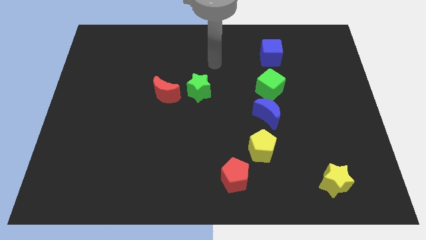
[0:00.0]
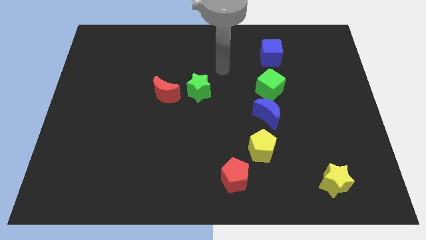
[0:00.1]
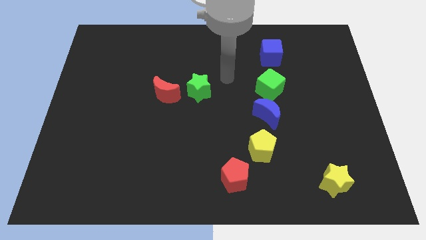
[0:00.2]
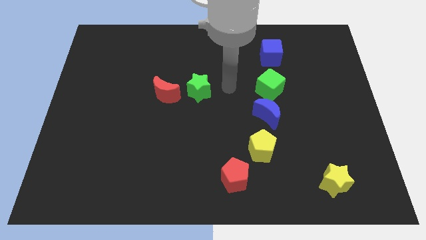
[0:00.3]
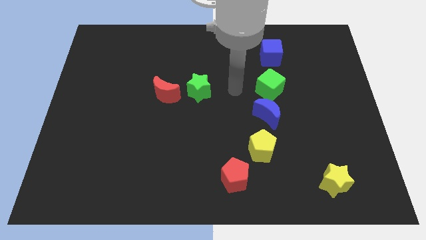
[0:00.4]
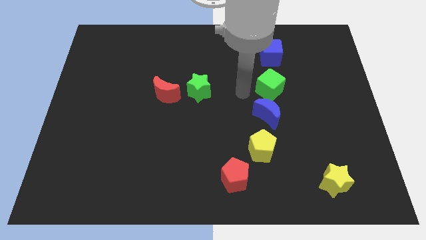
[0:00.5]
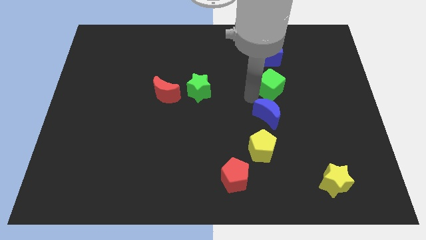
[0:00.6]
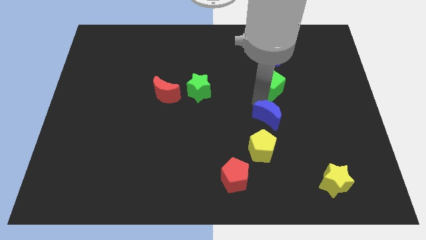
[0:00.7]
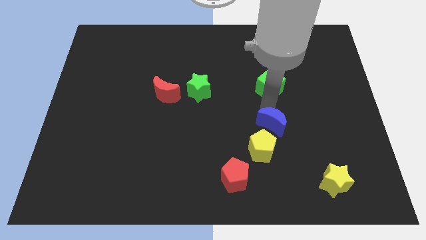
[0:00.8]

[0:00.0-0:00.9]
move the green cube away from the blue moon

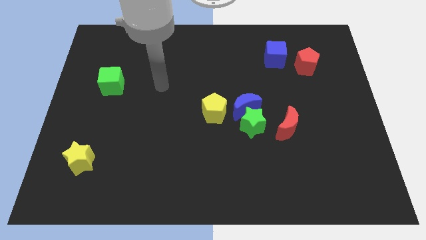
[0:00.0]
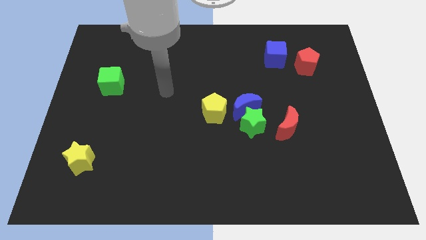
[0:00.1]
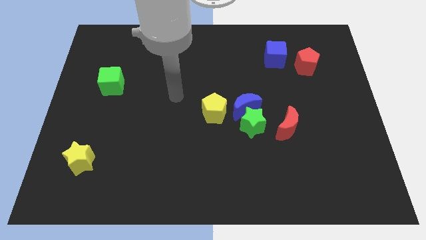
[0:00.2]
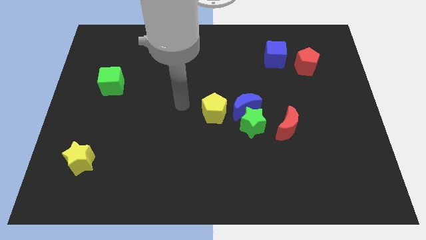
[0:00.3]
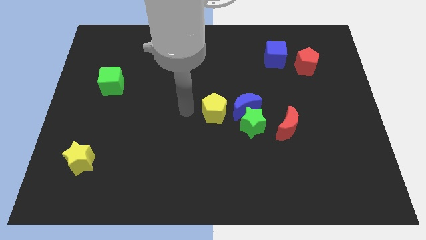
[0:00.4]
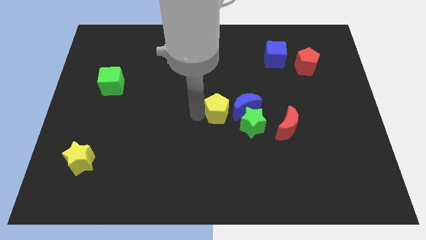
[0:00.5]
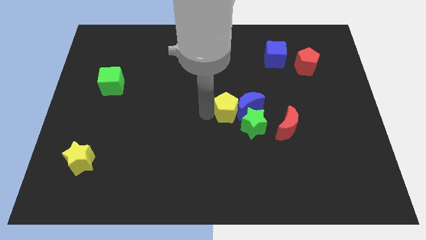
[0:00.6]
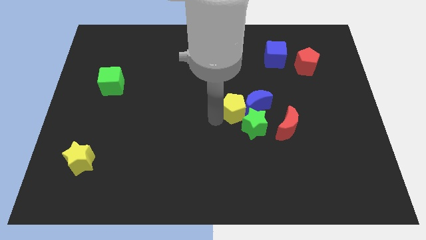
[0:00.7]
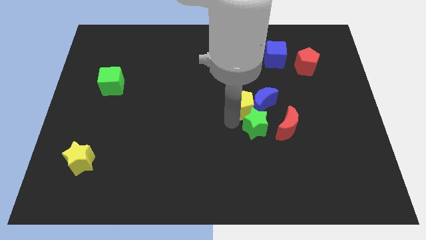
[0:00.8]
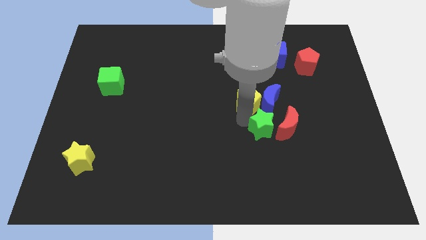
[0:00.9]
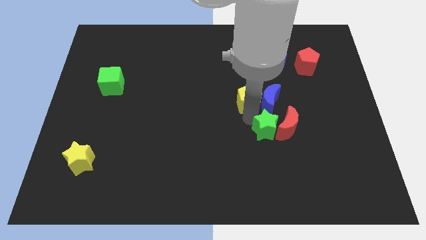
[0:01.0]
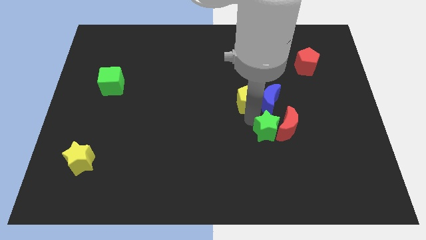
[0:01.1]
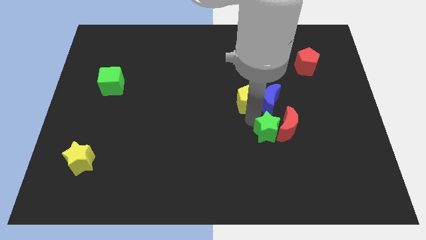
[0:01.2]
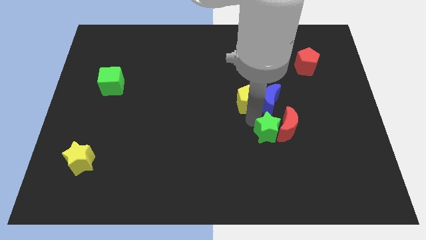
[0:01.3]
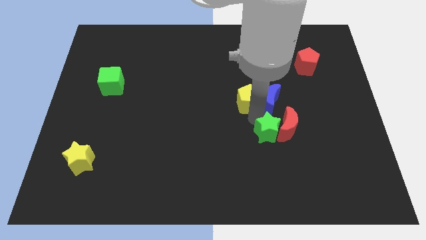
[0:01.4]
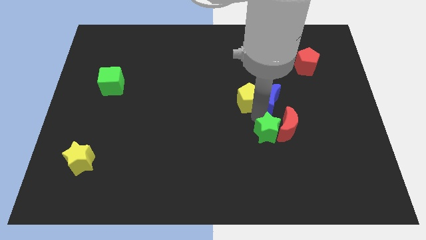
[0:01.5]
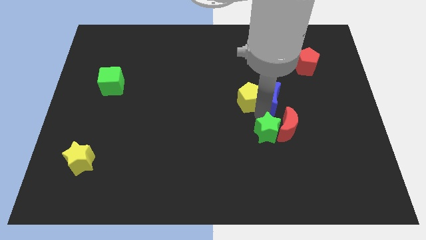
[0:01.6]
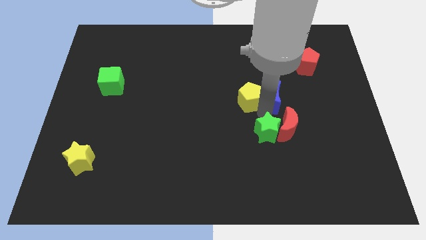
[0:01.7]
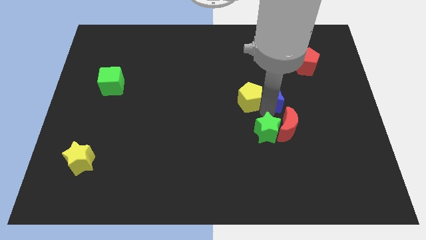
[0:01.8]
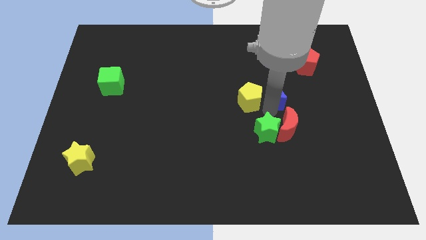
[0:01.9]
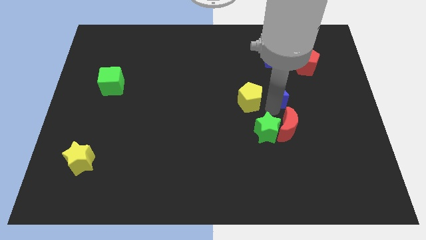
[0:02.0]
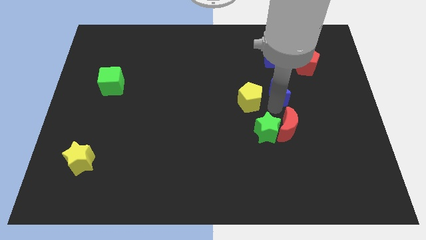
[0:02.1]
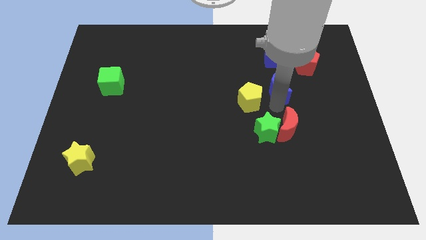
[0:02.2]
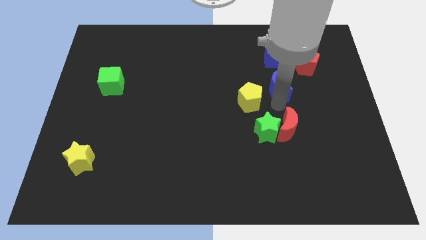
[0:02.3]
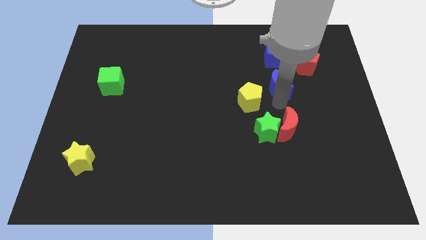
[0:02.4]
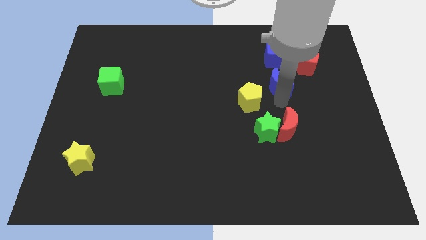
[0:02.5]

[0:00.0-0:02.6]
separate the blue moon from the green star and yellow pentagon

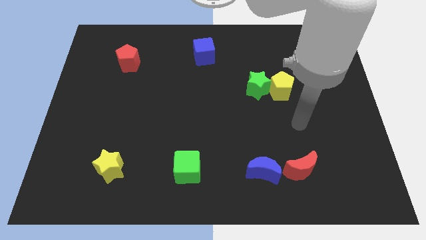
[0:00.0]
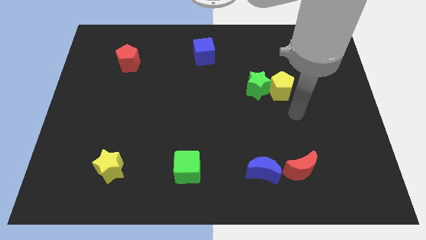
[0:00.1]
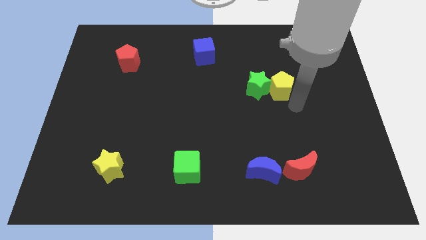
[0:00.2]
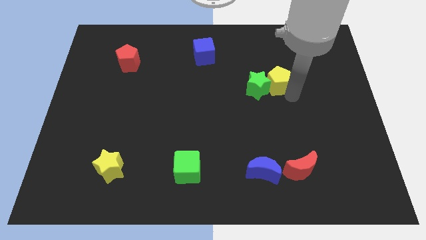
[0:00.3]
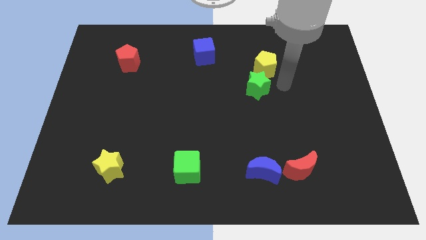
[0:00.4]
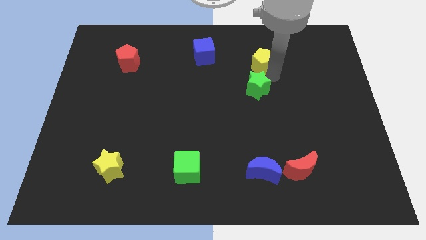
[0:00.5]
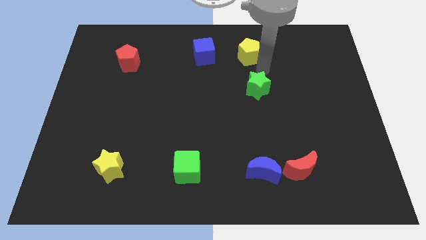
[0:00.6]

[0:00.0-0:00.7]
separate the green star from the yellow pentagon

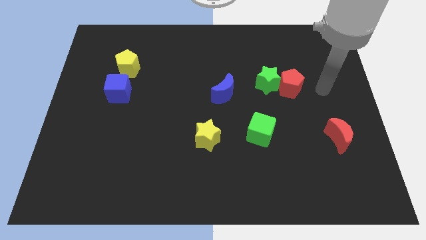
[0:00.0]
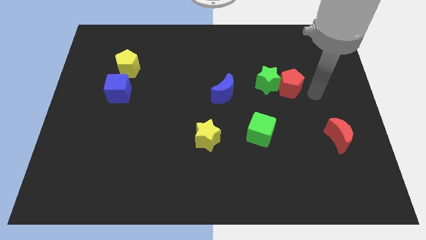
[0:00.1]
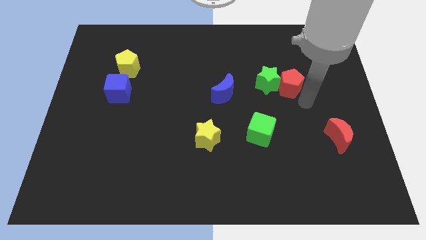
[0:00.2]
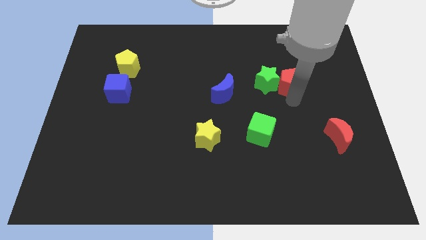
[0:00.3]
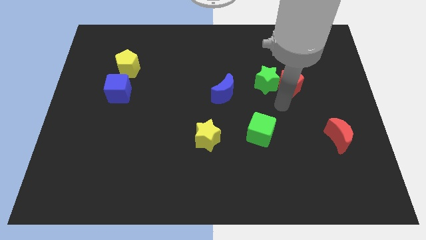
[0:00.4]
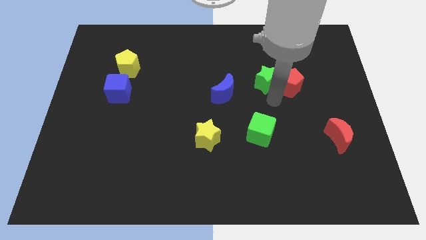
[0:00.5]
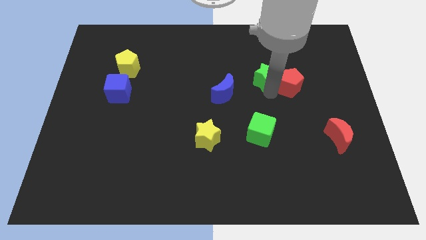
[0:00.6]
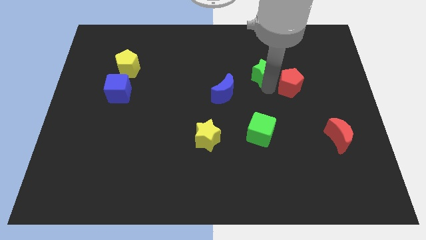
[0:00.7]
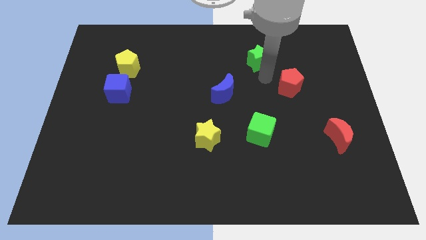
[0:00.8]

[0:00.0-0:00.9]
separate the red pentagon from the green star

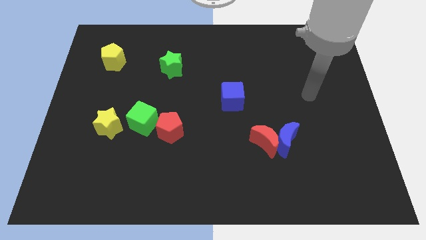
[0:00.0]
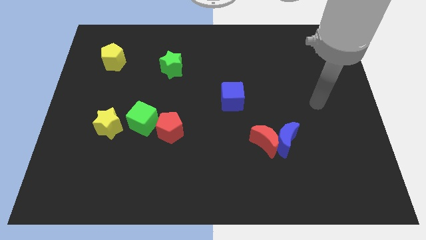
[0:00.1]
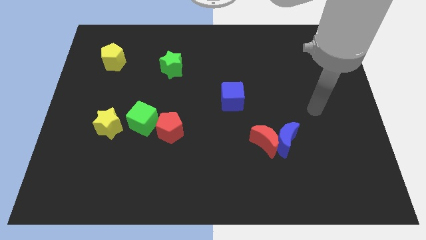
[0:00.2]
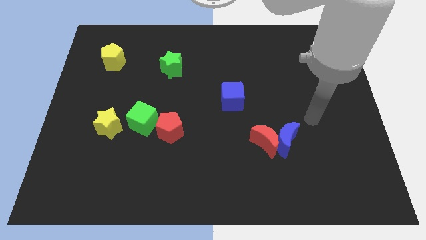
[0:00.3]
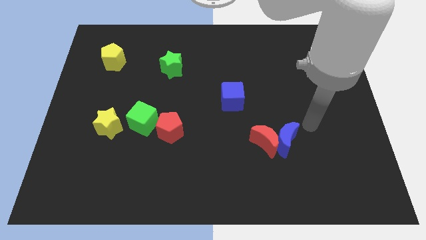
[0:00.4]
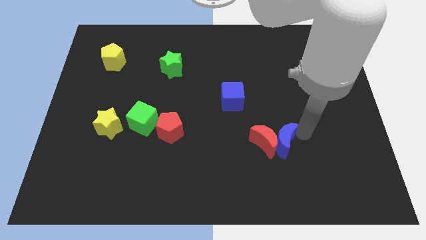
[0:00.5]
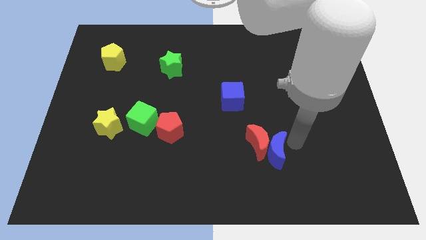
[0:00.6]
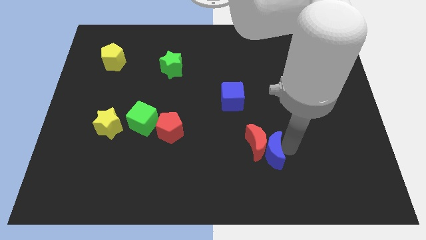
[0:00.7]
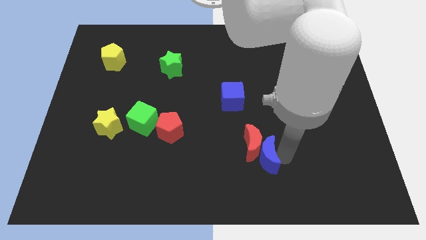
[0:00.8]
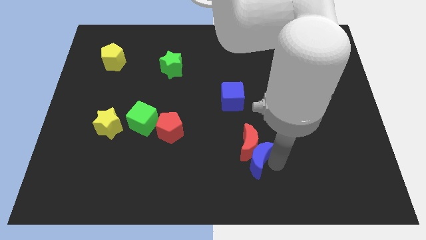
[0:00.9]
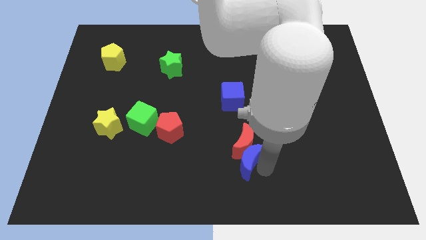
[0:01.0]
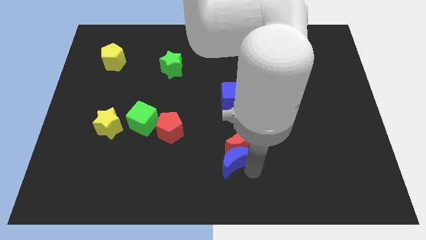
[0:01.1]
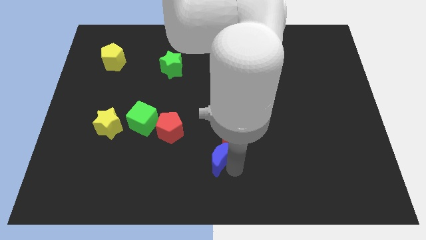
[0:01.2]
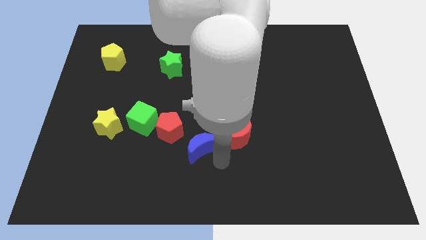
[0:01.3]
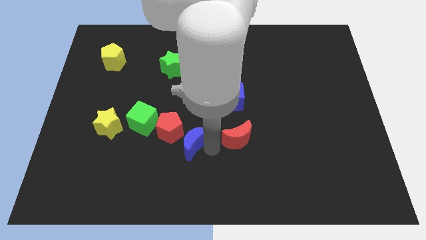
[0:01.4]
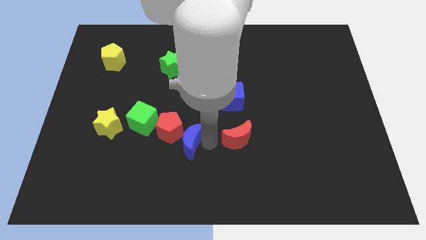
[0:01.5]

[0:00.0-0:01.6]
pull the red moon apart from the blue moon

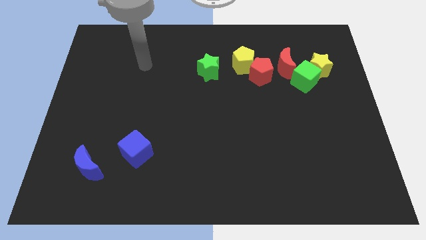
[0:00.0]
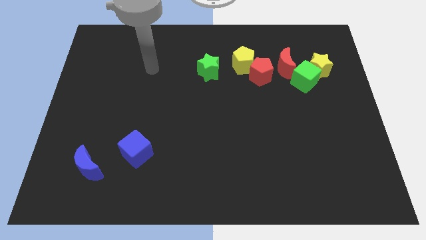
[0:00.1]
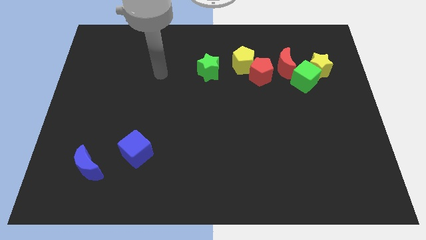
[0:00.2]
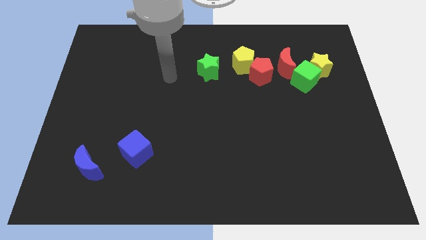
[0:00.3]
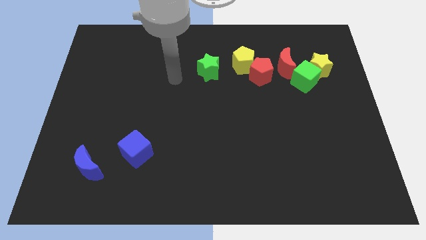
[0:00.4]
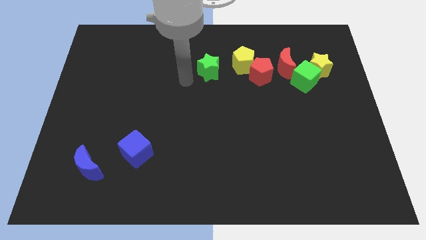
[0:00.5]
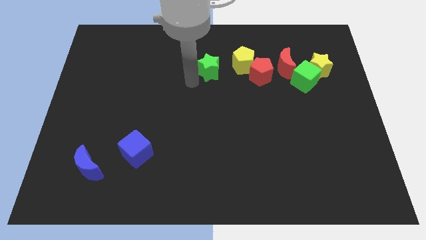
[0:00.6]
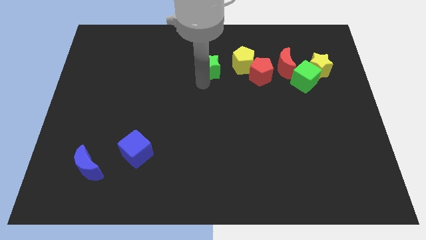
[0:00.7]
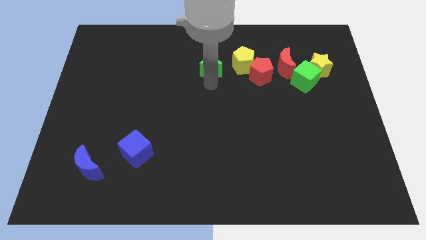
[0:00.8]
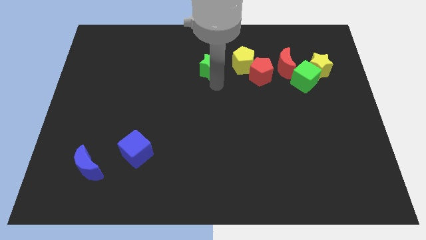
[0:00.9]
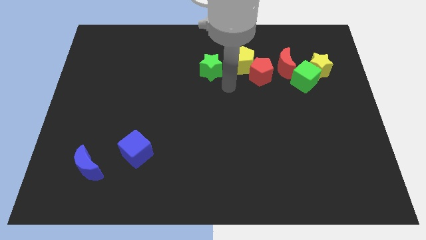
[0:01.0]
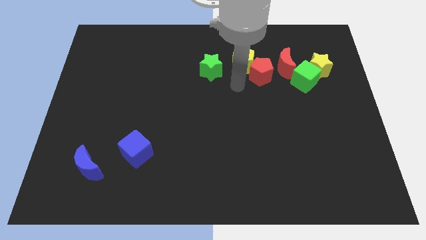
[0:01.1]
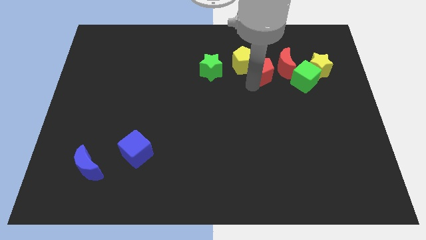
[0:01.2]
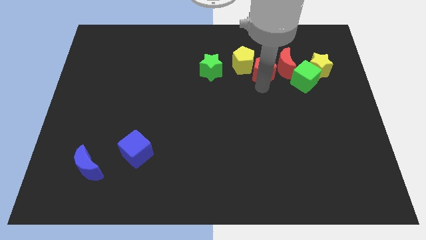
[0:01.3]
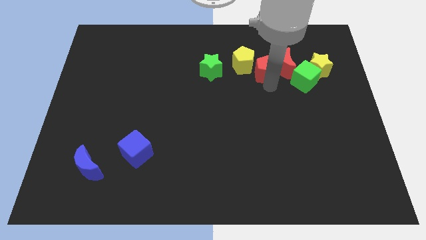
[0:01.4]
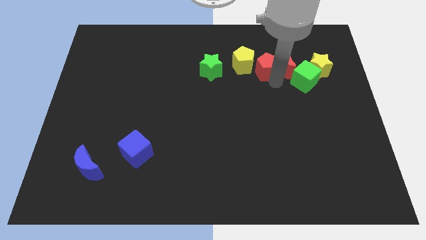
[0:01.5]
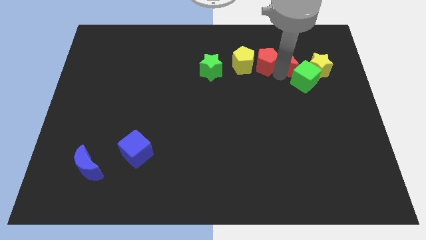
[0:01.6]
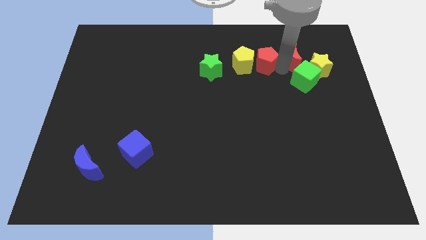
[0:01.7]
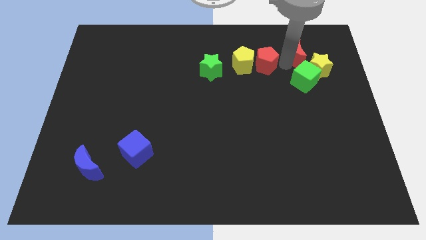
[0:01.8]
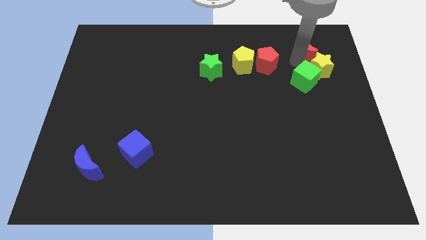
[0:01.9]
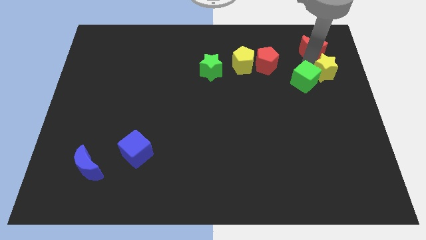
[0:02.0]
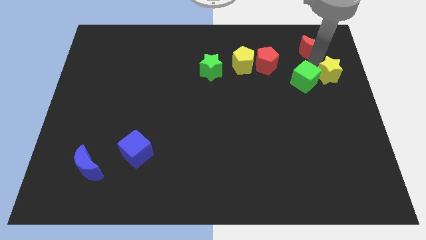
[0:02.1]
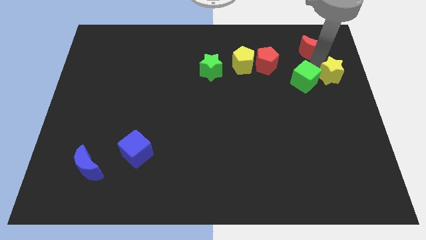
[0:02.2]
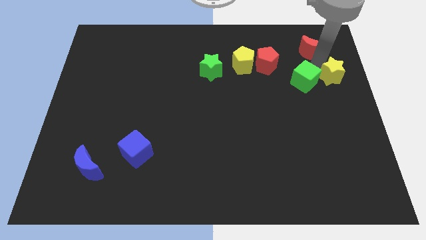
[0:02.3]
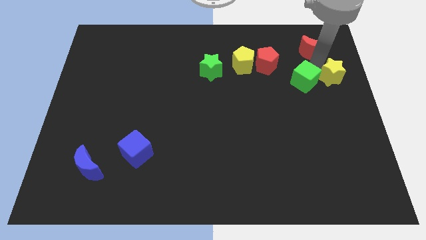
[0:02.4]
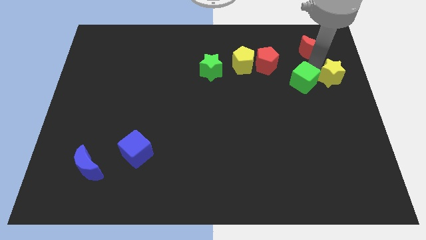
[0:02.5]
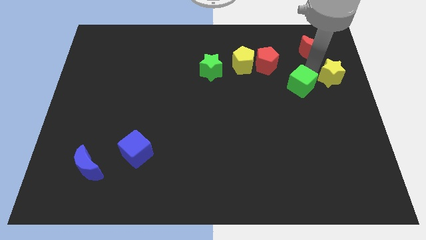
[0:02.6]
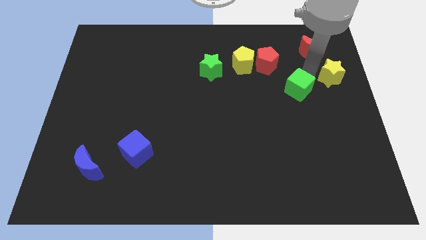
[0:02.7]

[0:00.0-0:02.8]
separate the green cube from the yellow star and red moon
